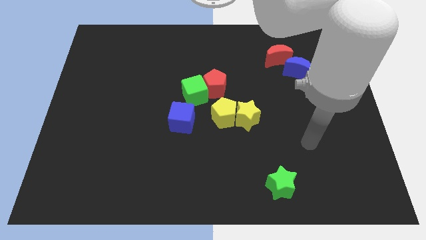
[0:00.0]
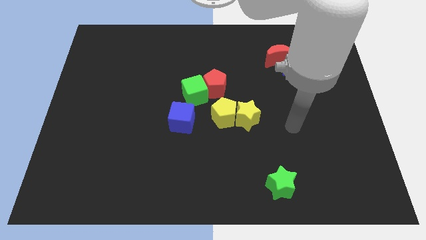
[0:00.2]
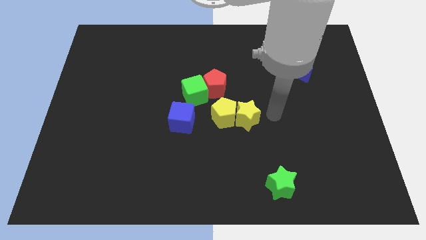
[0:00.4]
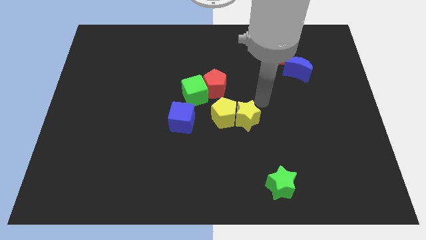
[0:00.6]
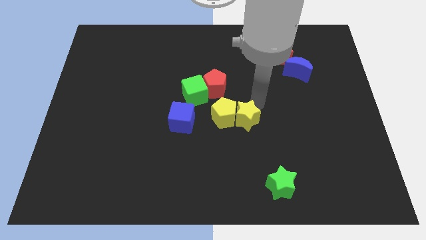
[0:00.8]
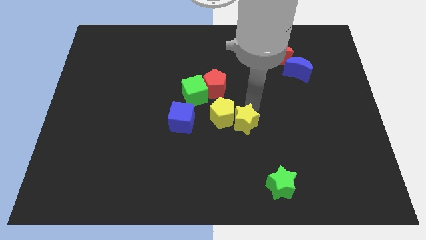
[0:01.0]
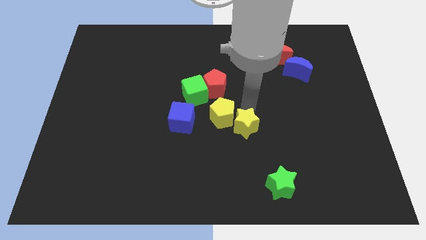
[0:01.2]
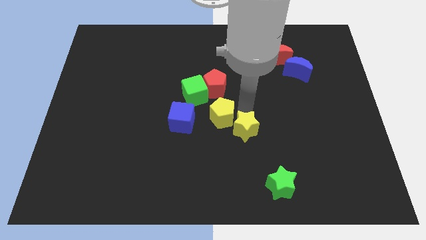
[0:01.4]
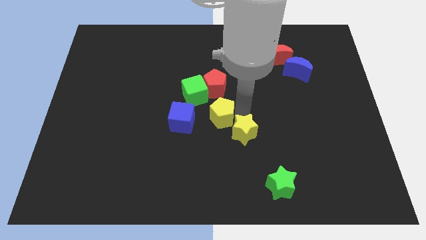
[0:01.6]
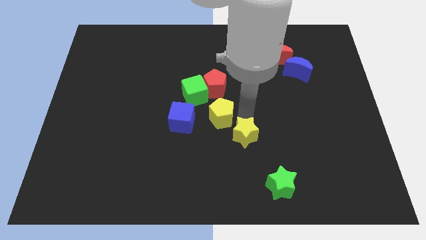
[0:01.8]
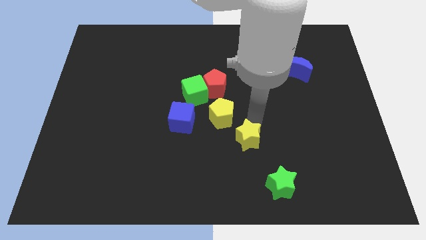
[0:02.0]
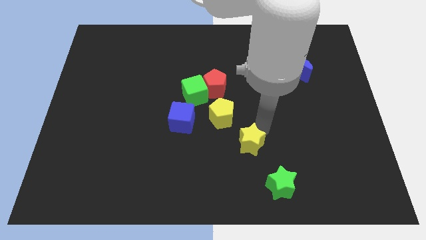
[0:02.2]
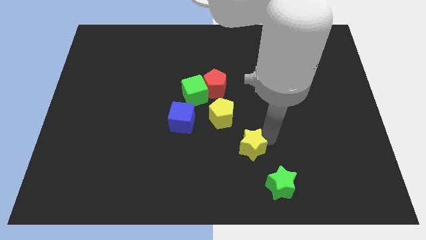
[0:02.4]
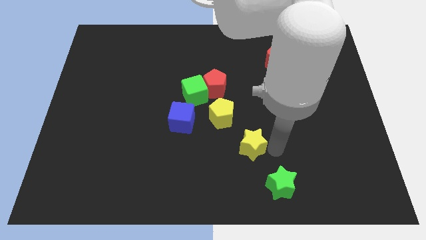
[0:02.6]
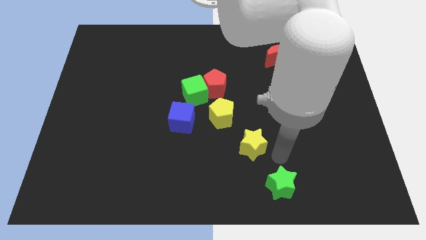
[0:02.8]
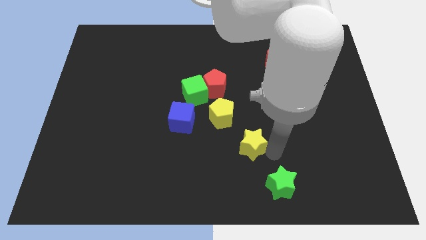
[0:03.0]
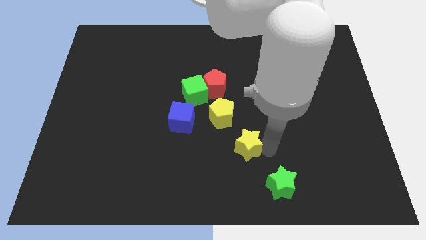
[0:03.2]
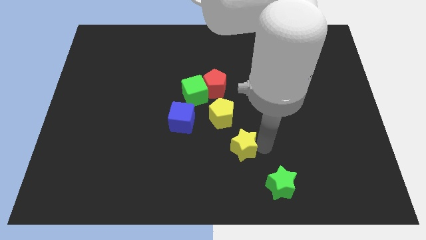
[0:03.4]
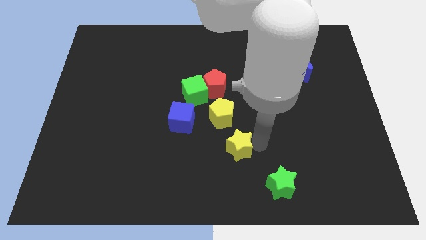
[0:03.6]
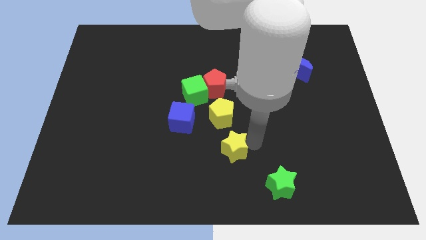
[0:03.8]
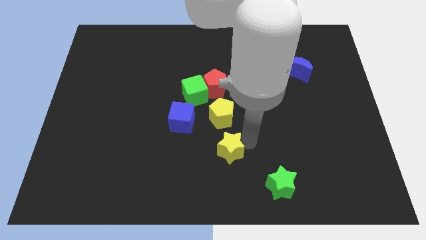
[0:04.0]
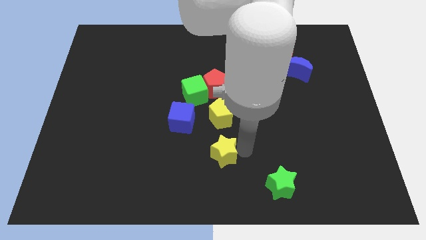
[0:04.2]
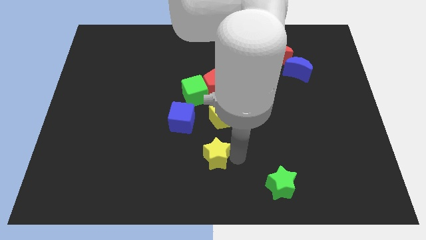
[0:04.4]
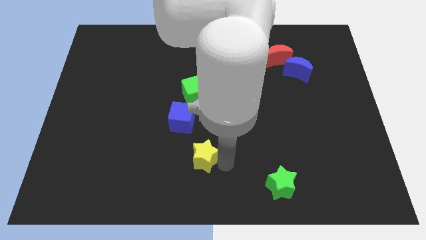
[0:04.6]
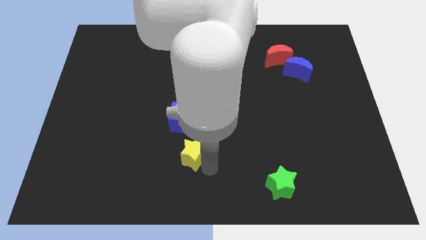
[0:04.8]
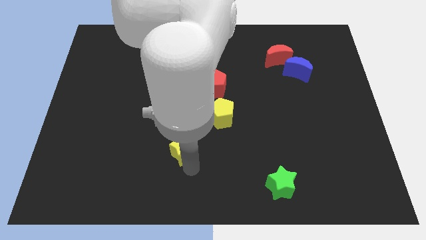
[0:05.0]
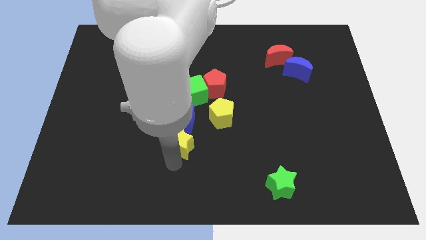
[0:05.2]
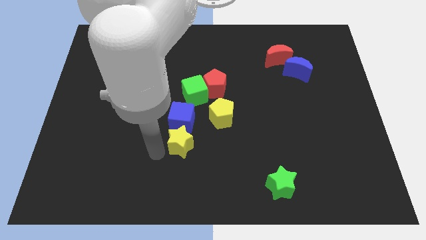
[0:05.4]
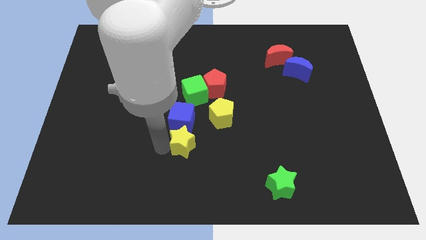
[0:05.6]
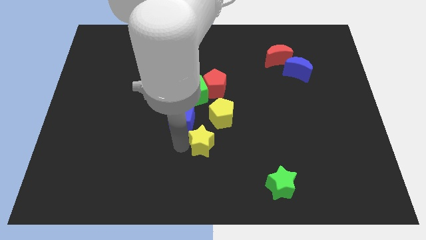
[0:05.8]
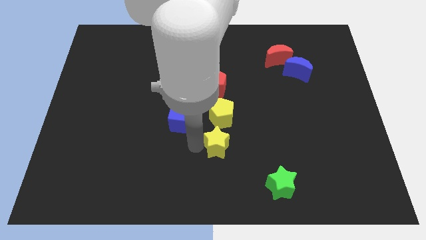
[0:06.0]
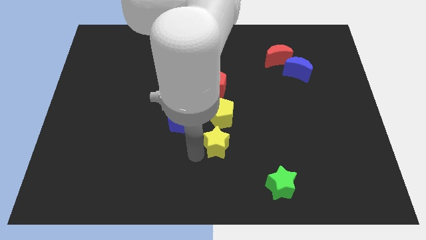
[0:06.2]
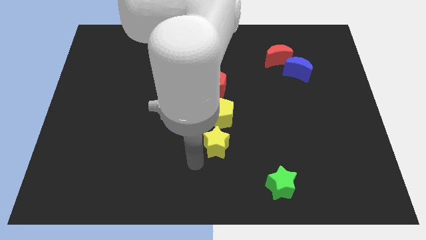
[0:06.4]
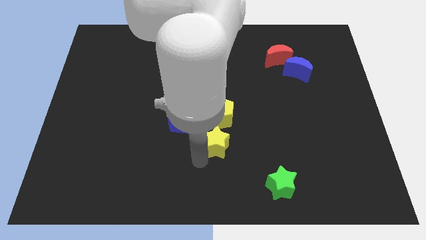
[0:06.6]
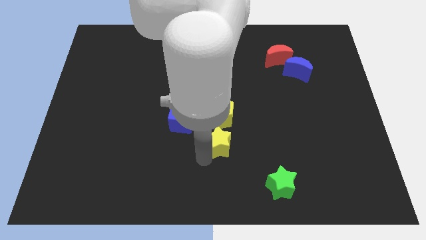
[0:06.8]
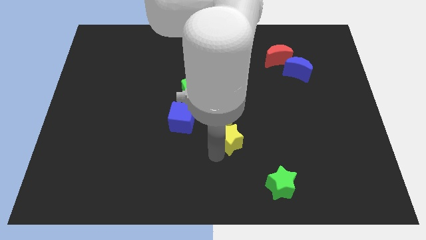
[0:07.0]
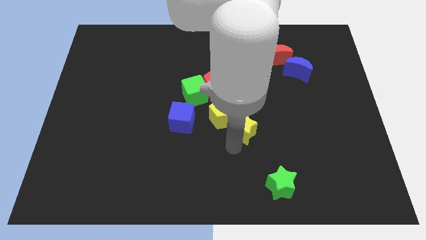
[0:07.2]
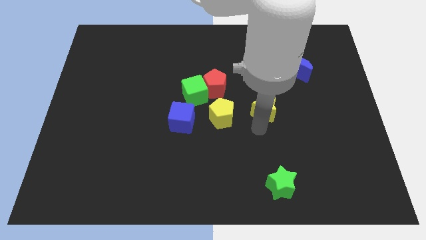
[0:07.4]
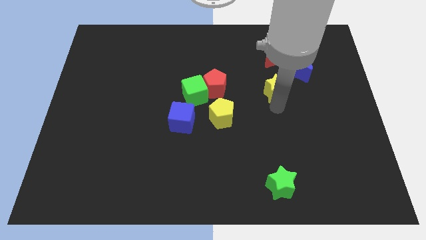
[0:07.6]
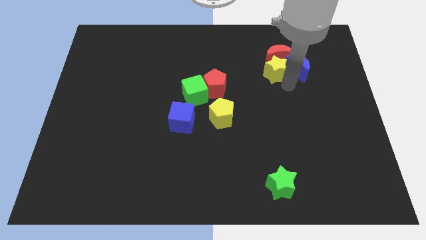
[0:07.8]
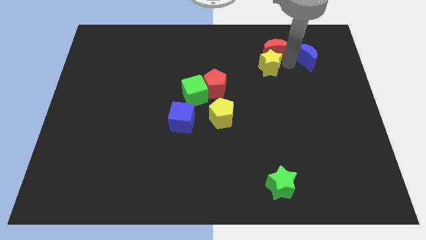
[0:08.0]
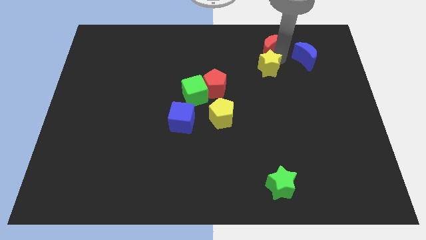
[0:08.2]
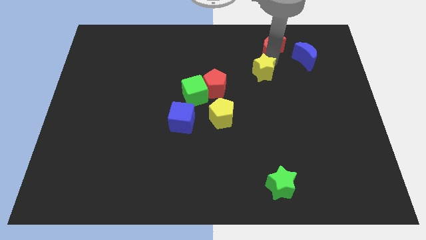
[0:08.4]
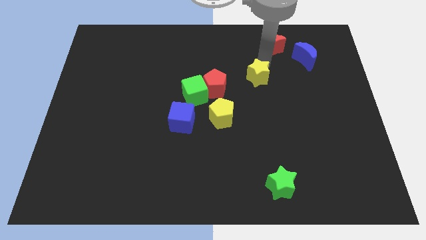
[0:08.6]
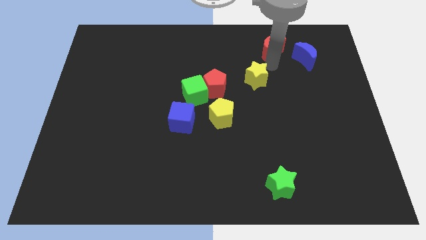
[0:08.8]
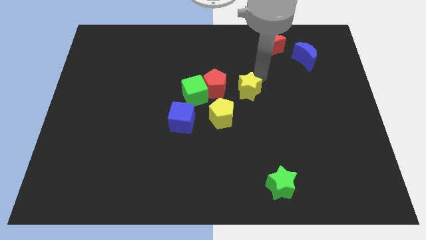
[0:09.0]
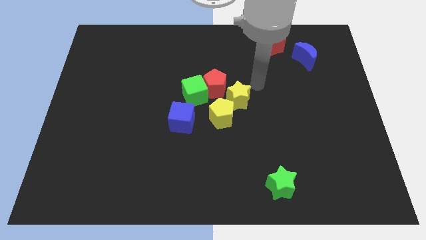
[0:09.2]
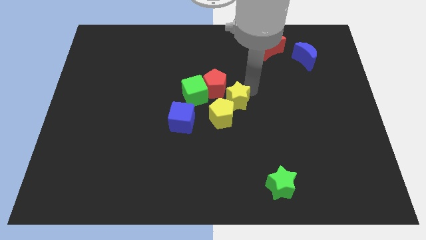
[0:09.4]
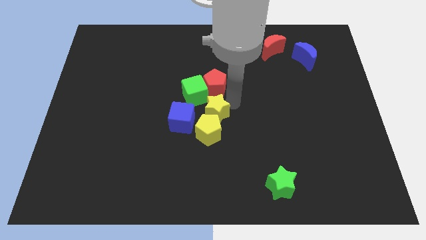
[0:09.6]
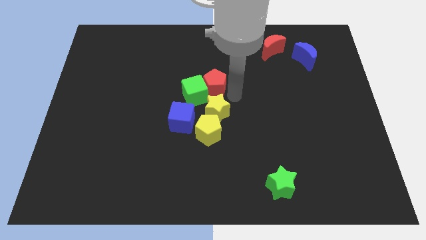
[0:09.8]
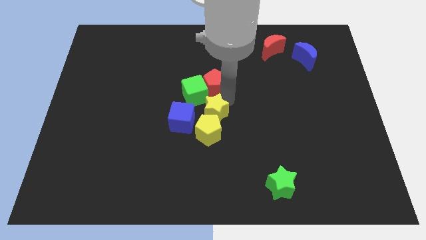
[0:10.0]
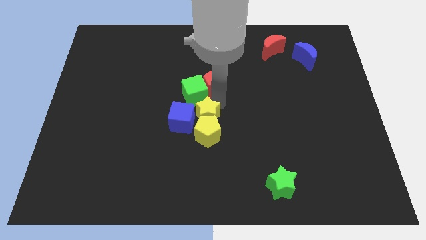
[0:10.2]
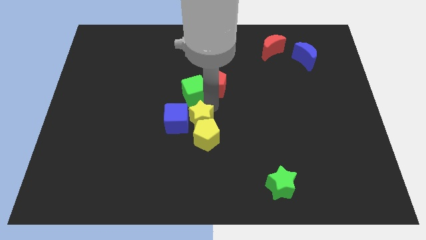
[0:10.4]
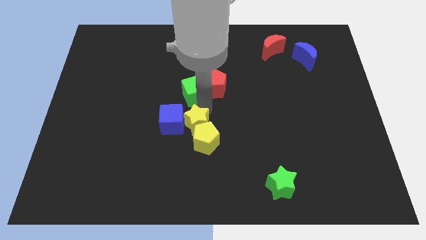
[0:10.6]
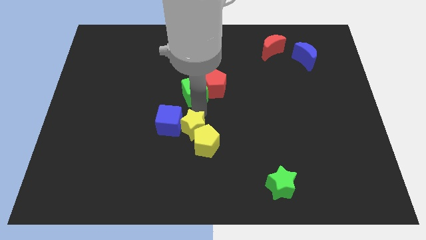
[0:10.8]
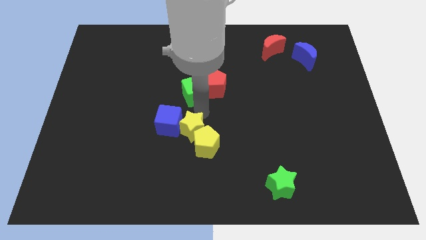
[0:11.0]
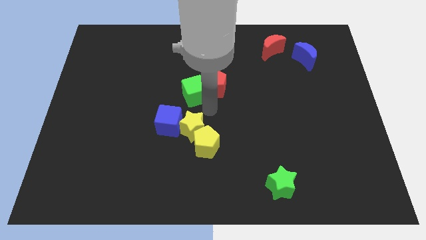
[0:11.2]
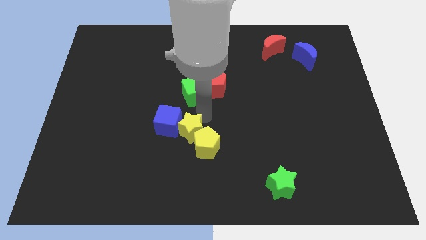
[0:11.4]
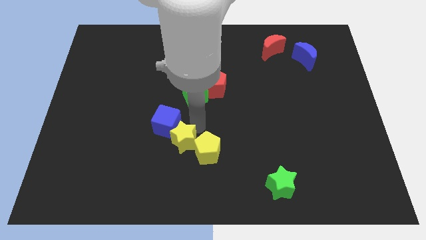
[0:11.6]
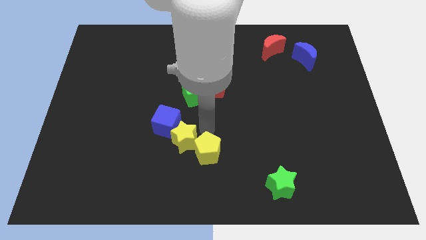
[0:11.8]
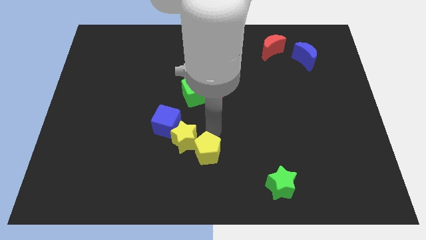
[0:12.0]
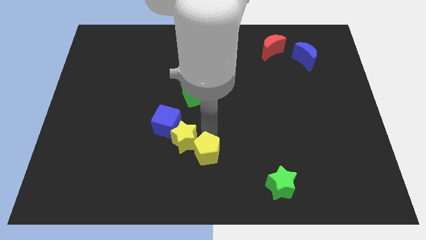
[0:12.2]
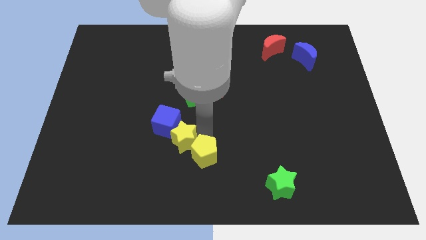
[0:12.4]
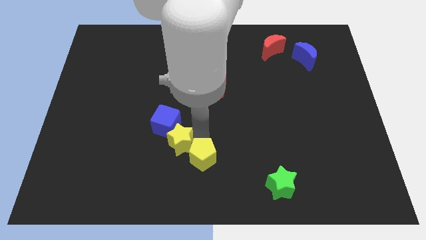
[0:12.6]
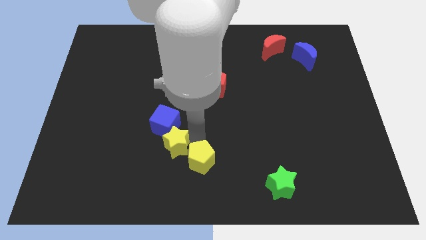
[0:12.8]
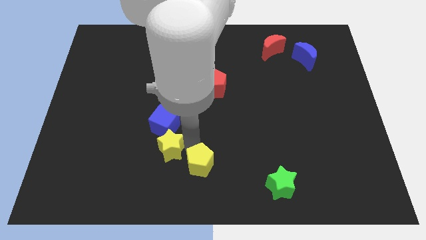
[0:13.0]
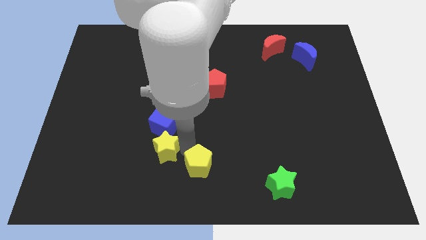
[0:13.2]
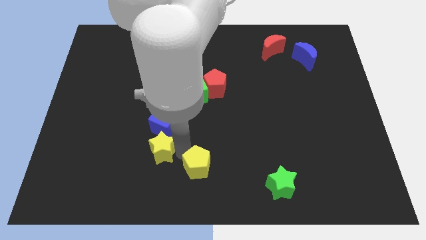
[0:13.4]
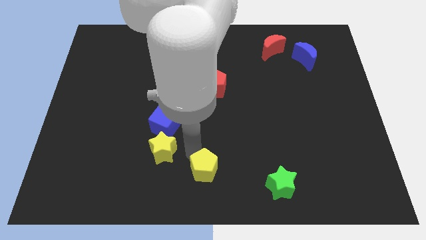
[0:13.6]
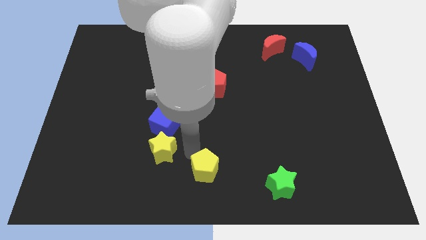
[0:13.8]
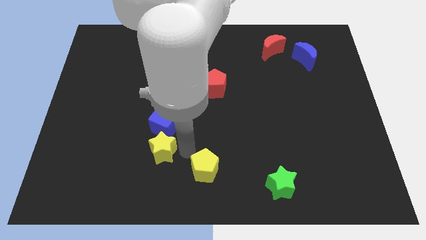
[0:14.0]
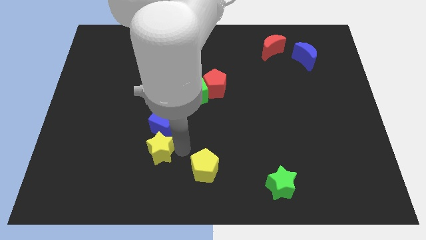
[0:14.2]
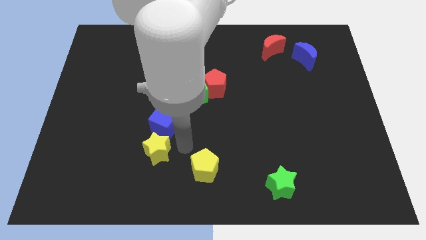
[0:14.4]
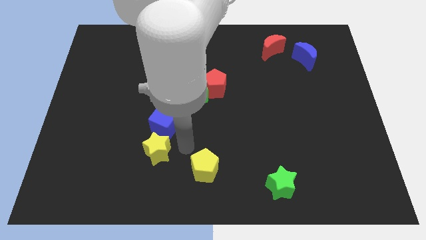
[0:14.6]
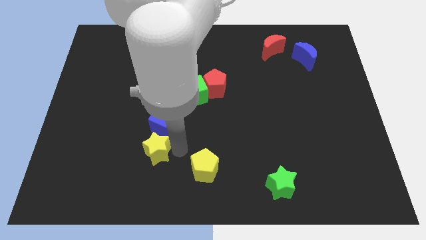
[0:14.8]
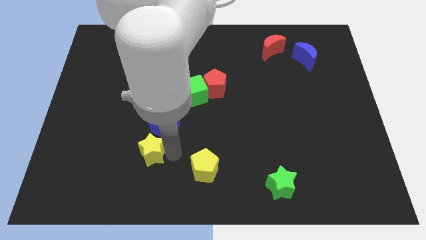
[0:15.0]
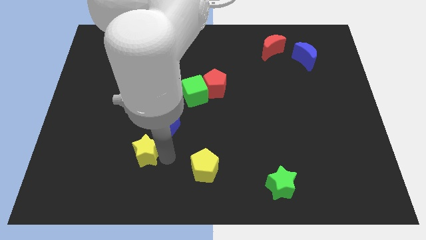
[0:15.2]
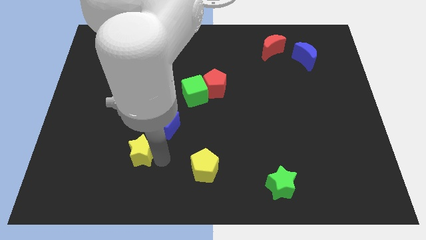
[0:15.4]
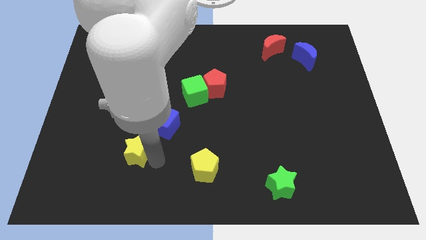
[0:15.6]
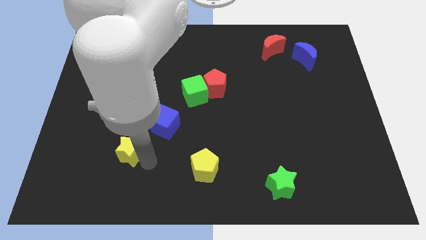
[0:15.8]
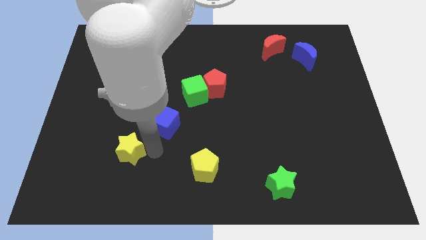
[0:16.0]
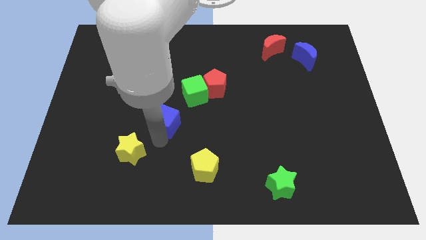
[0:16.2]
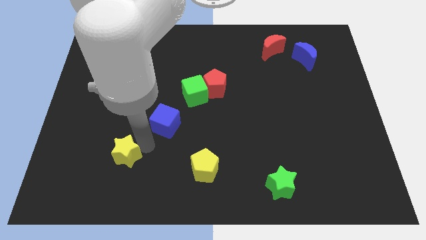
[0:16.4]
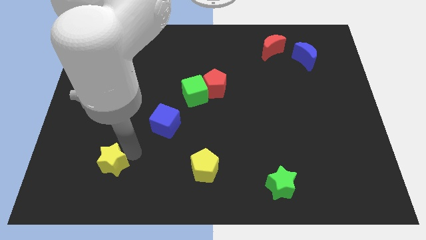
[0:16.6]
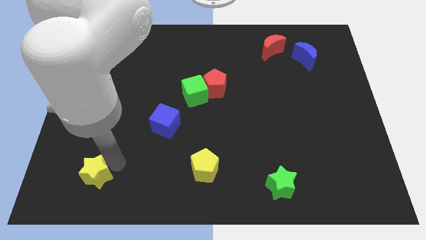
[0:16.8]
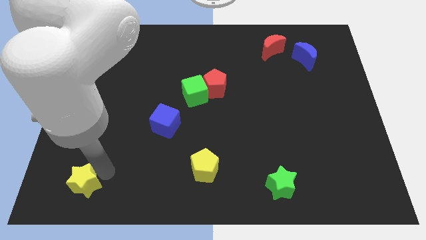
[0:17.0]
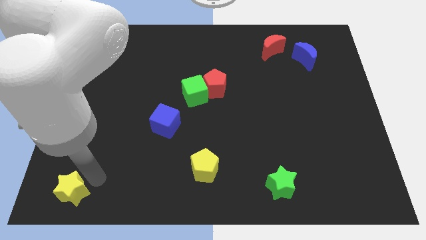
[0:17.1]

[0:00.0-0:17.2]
push the yellow star to the lower left corner
